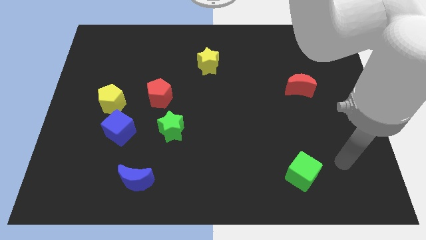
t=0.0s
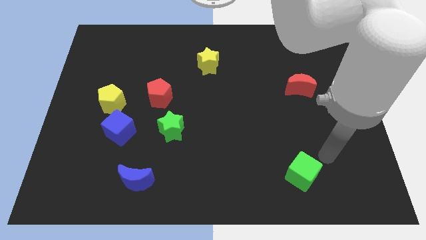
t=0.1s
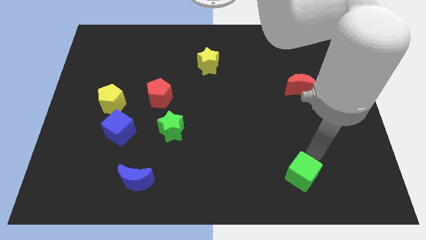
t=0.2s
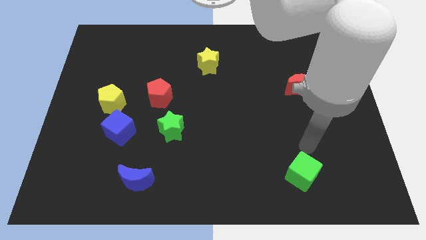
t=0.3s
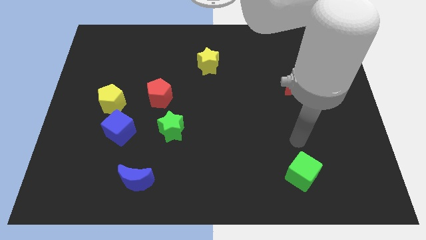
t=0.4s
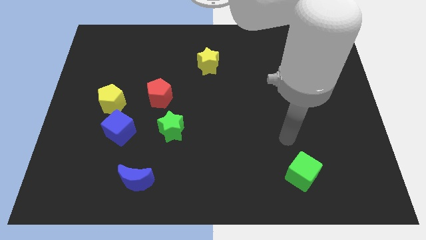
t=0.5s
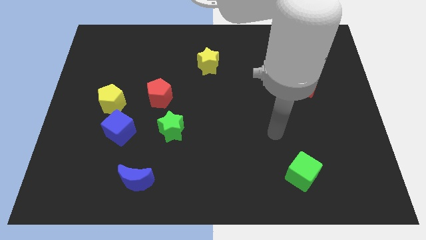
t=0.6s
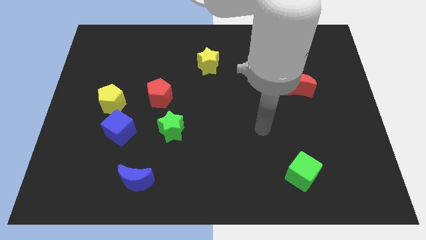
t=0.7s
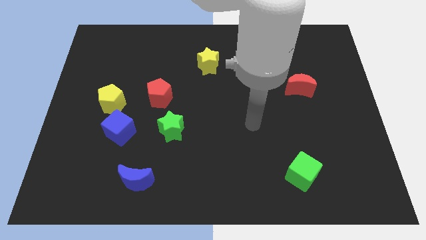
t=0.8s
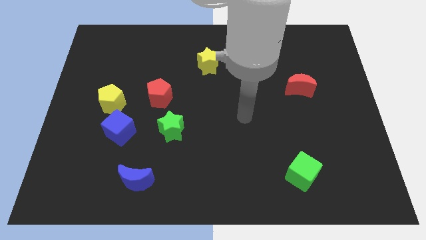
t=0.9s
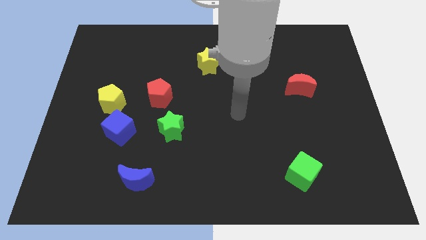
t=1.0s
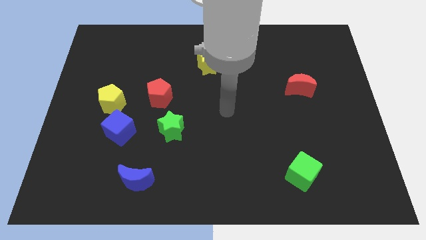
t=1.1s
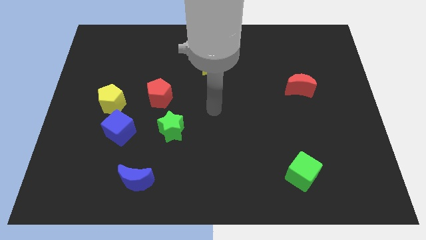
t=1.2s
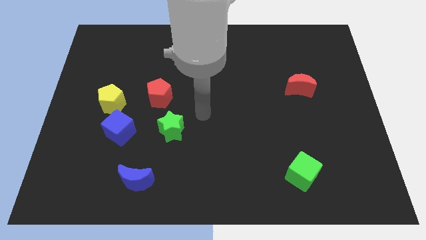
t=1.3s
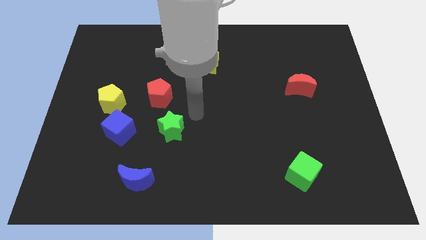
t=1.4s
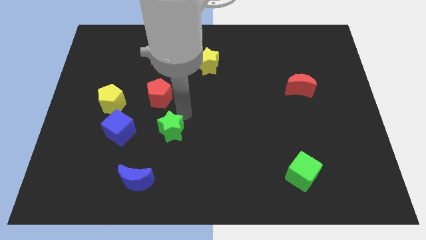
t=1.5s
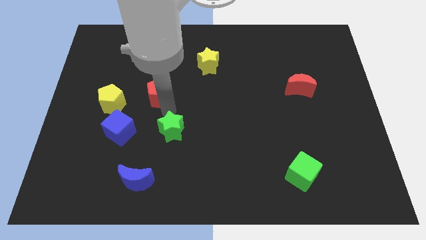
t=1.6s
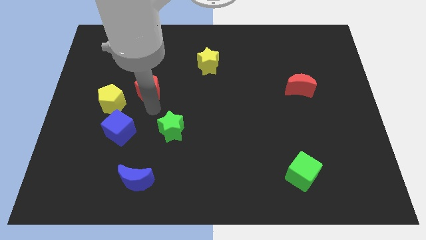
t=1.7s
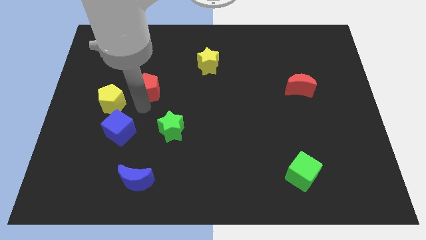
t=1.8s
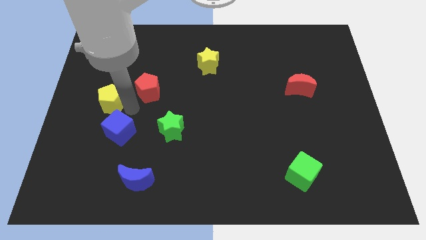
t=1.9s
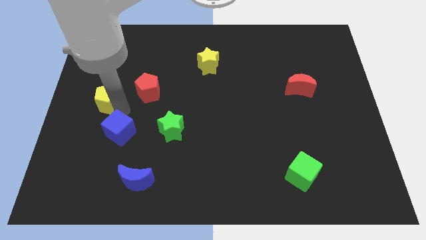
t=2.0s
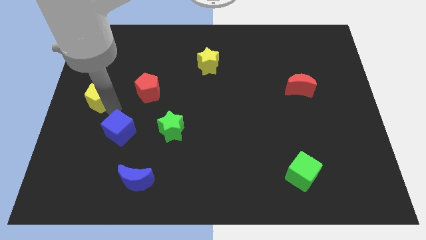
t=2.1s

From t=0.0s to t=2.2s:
separate the blue cube from the yellow pentagon

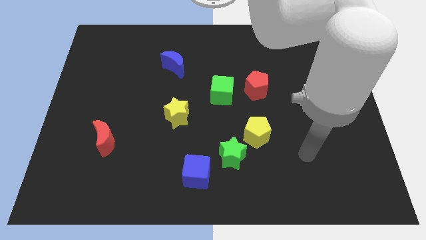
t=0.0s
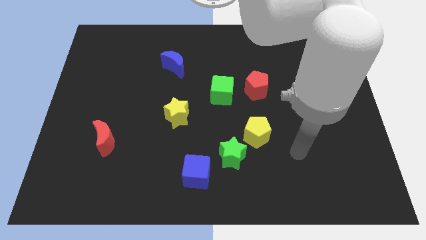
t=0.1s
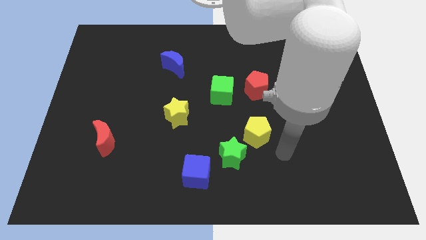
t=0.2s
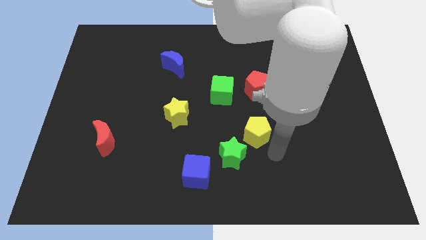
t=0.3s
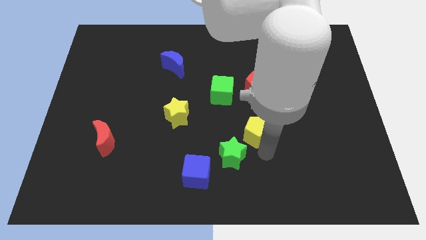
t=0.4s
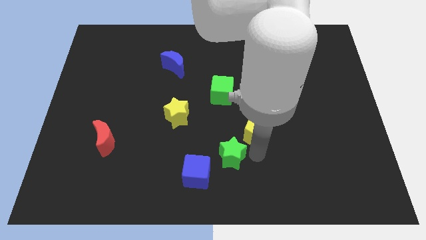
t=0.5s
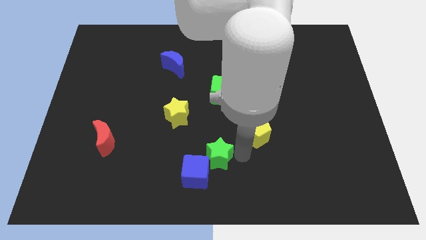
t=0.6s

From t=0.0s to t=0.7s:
move the yellow pentagon away from the green star

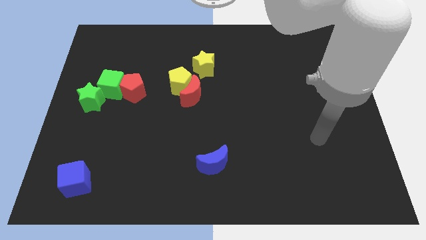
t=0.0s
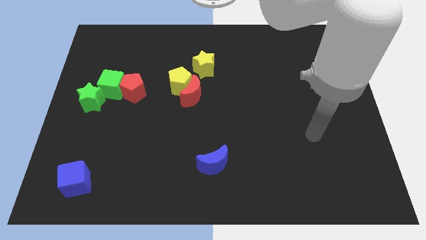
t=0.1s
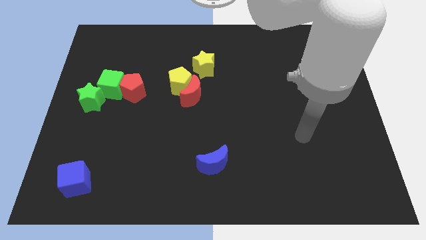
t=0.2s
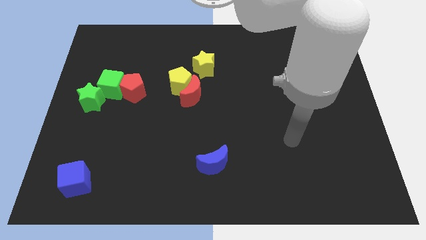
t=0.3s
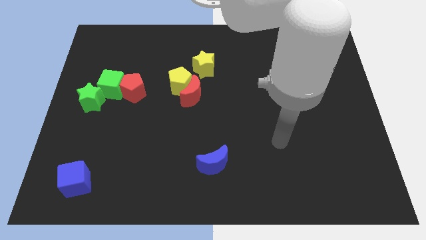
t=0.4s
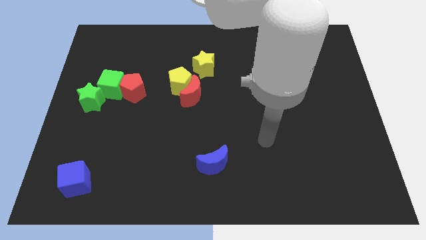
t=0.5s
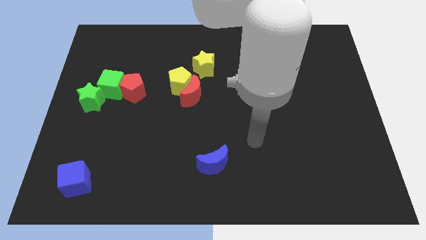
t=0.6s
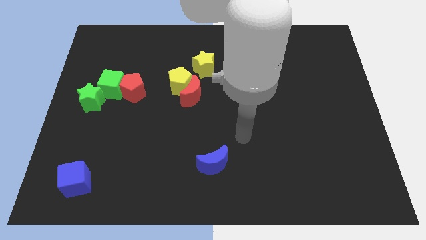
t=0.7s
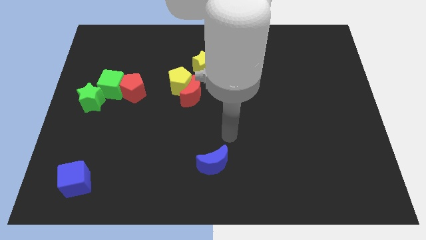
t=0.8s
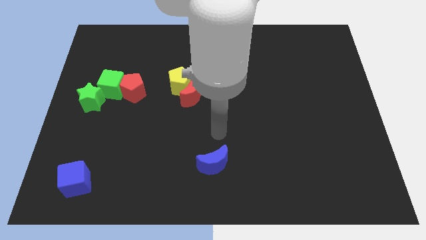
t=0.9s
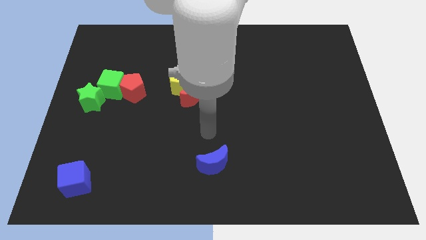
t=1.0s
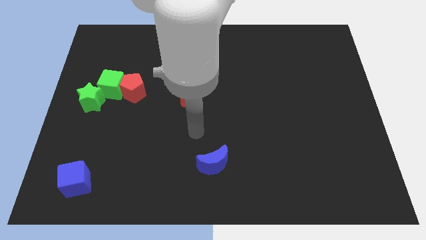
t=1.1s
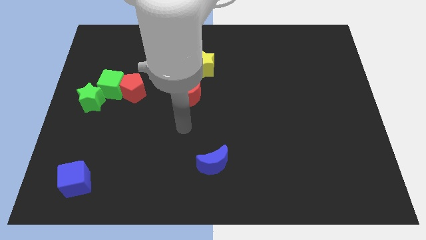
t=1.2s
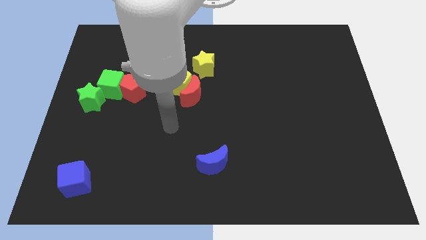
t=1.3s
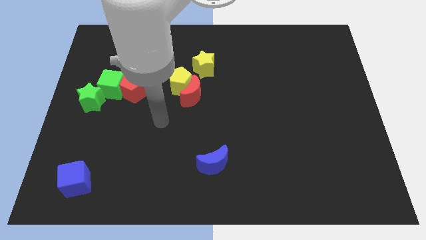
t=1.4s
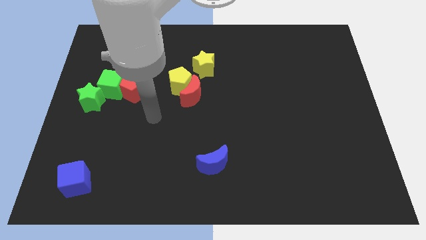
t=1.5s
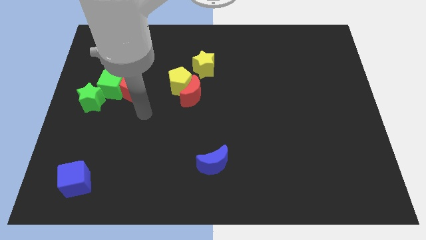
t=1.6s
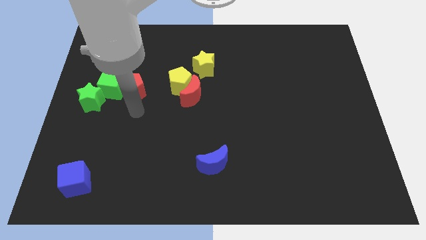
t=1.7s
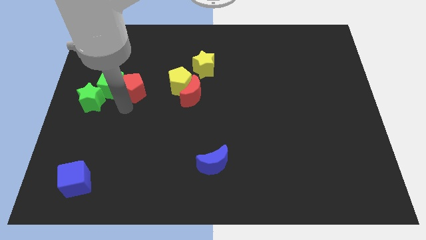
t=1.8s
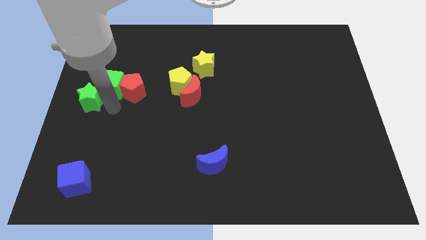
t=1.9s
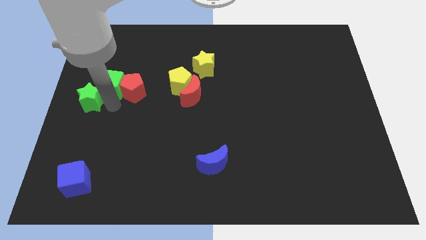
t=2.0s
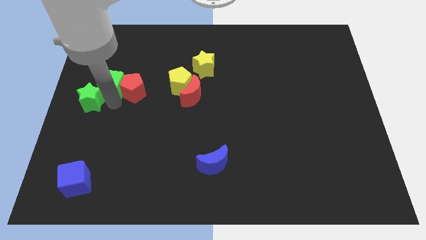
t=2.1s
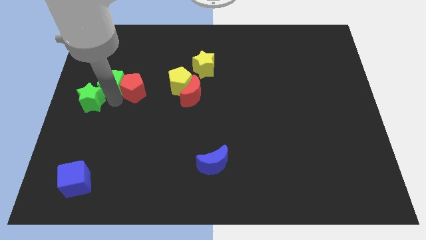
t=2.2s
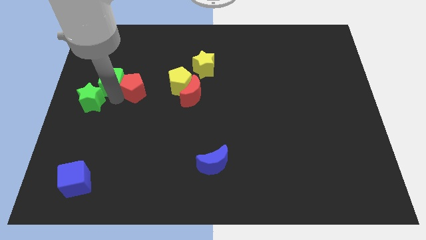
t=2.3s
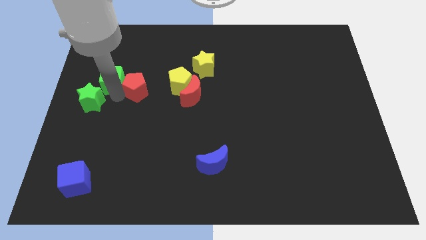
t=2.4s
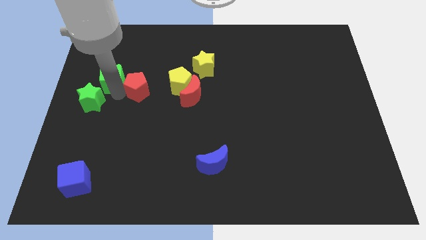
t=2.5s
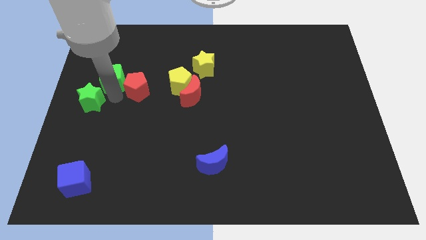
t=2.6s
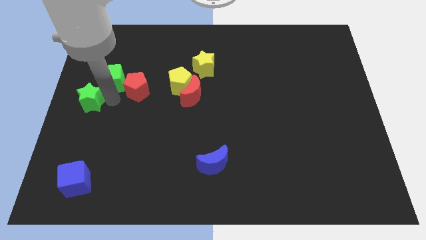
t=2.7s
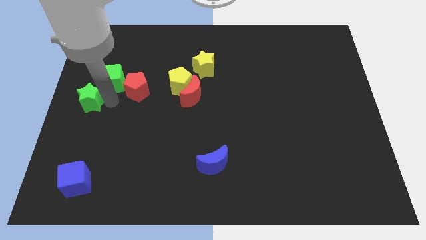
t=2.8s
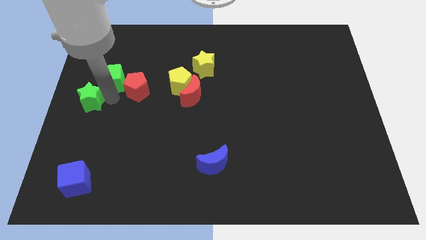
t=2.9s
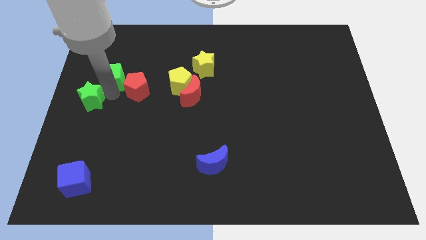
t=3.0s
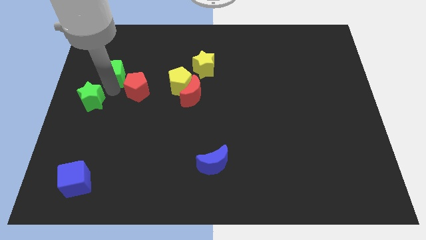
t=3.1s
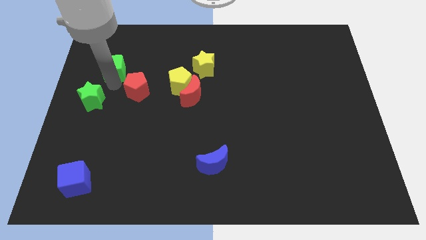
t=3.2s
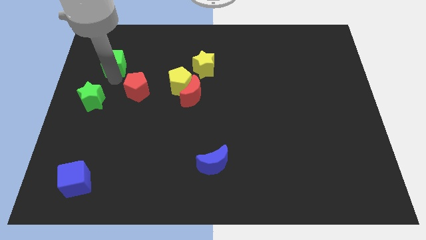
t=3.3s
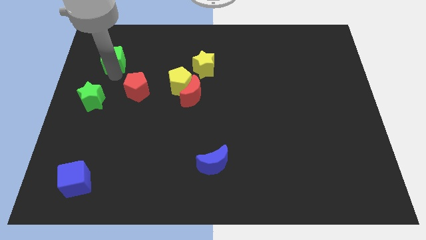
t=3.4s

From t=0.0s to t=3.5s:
move the green cube away from the red pentagon and green star

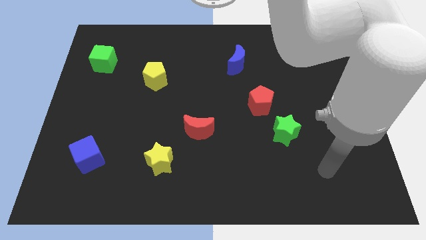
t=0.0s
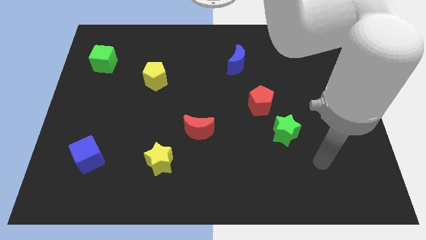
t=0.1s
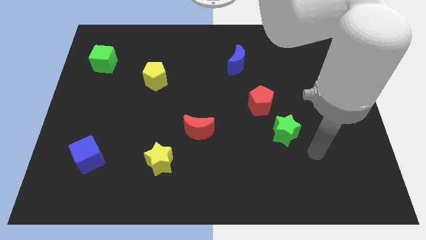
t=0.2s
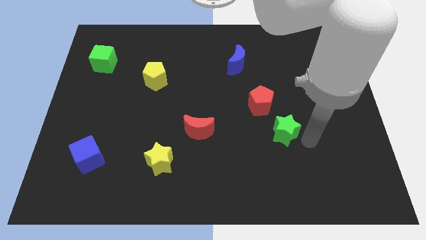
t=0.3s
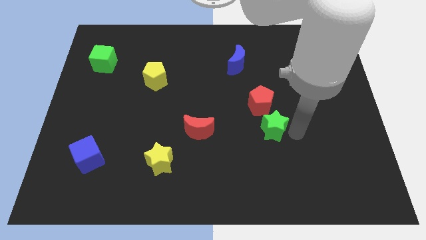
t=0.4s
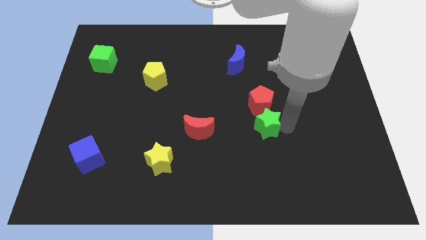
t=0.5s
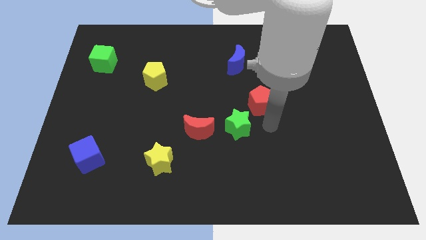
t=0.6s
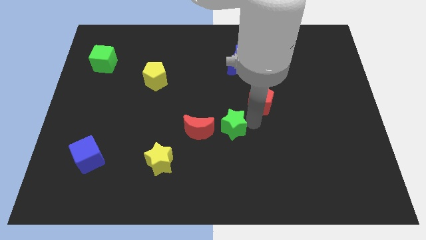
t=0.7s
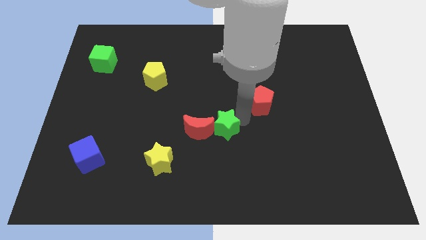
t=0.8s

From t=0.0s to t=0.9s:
move the red pentagon away from the green star

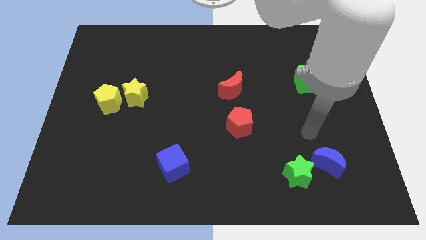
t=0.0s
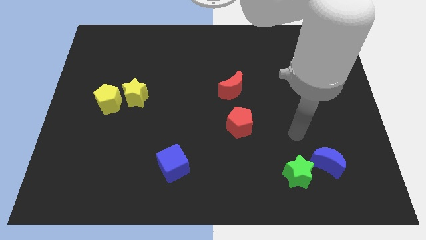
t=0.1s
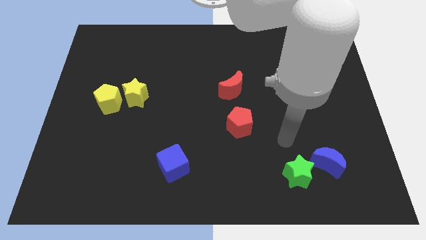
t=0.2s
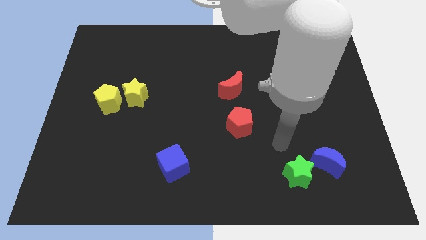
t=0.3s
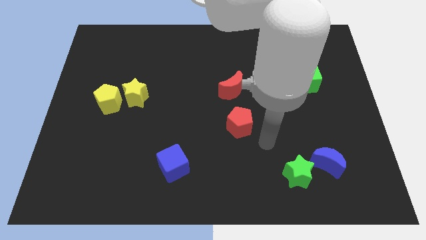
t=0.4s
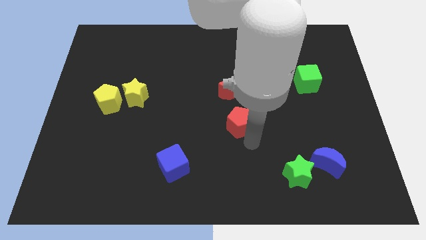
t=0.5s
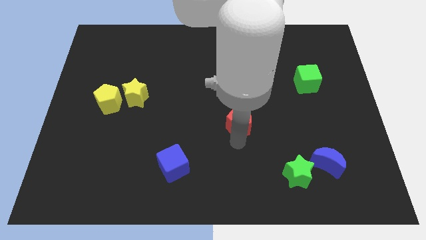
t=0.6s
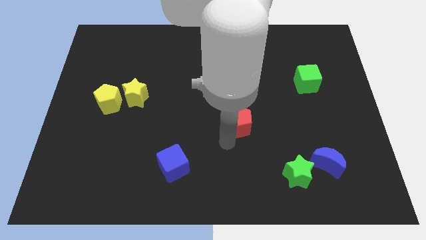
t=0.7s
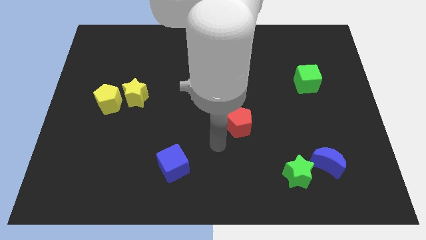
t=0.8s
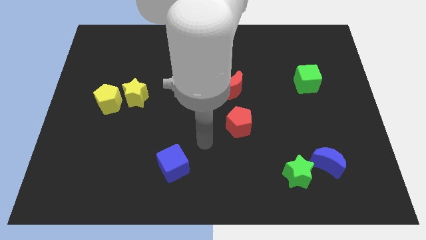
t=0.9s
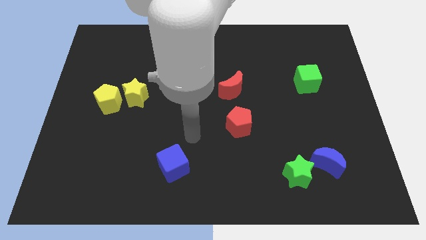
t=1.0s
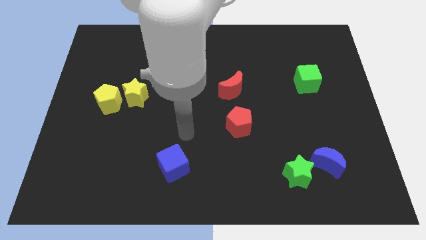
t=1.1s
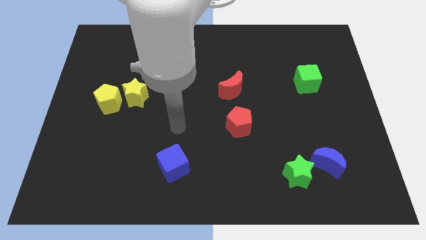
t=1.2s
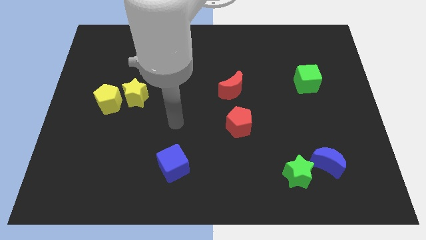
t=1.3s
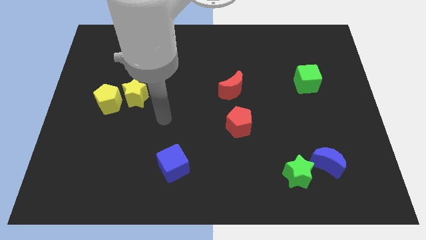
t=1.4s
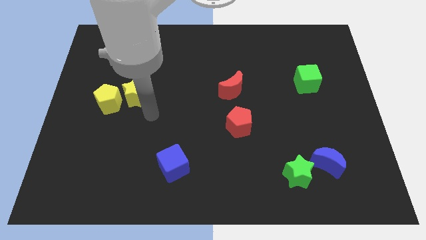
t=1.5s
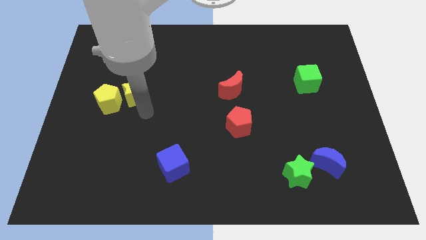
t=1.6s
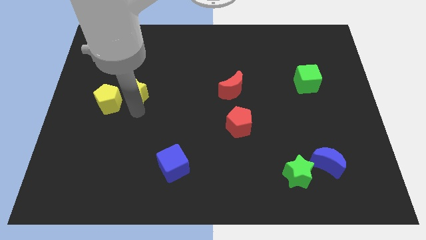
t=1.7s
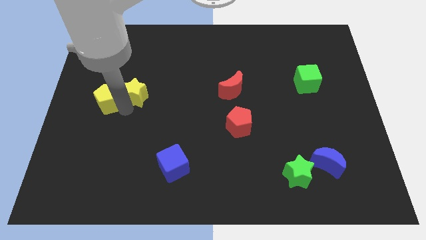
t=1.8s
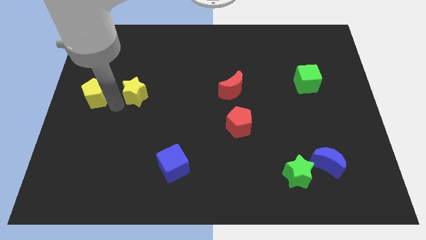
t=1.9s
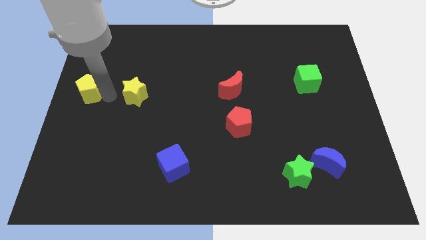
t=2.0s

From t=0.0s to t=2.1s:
separate the yellow star from the yellow pentagon

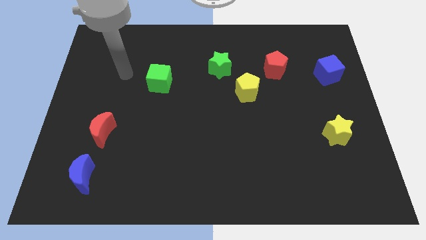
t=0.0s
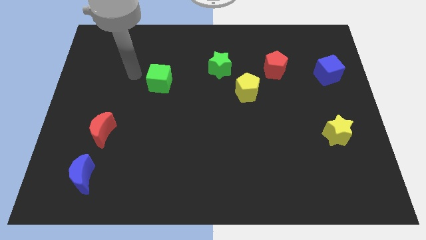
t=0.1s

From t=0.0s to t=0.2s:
separate the green star from the yellow pentagon
